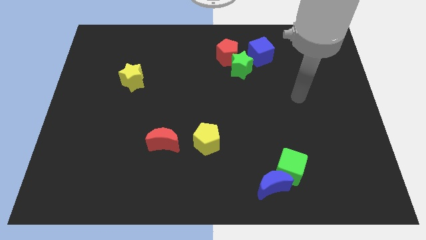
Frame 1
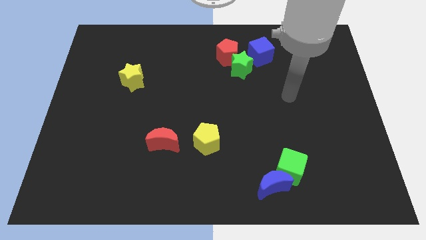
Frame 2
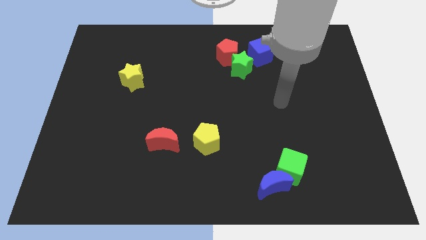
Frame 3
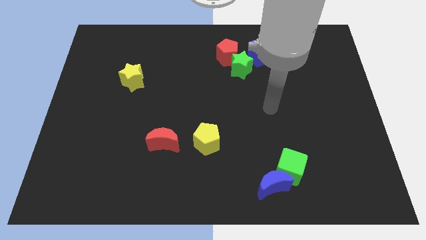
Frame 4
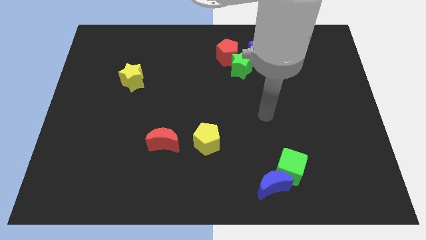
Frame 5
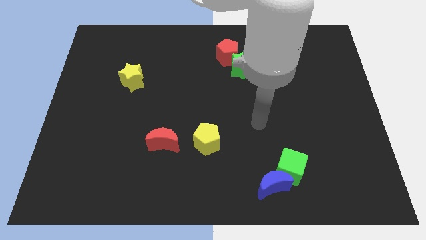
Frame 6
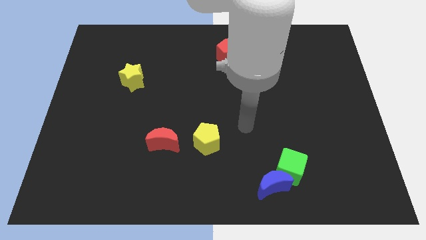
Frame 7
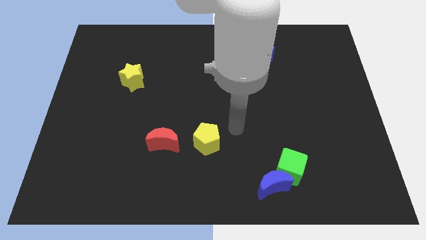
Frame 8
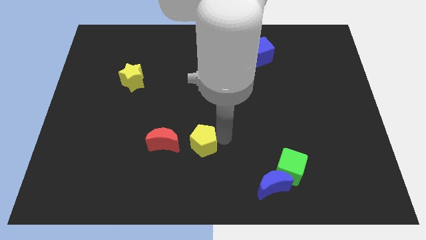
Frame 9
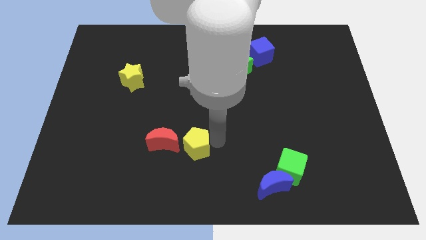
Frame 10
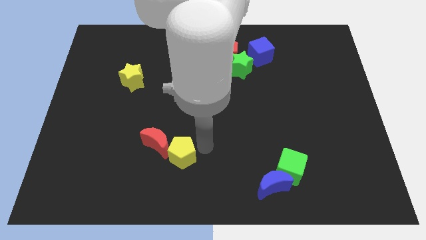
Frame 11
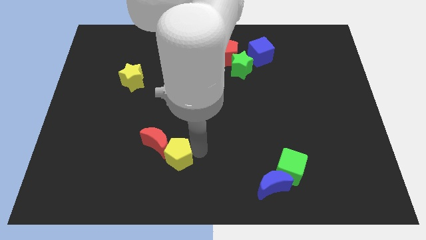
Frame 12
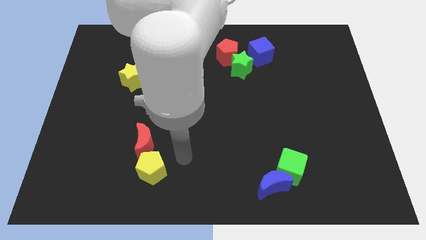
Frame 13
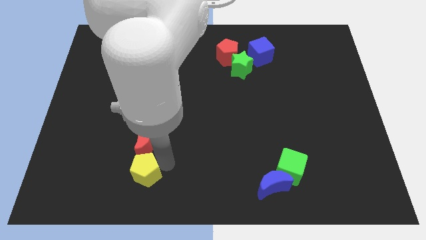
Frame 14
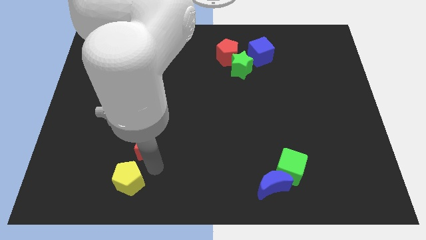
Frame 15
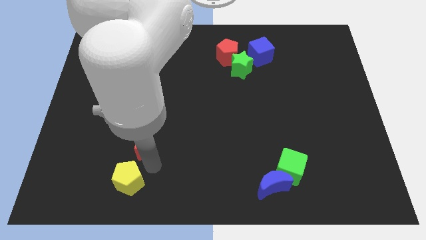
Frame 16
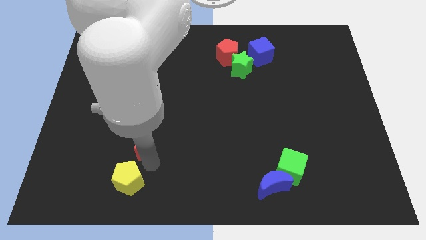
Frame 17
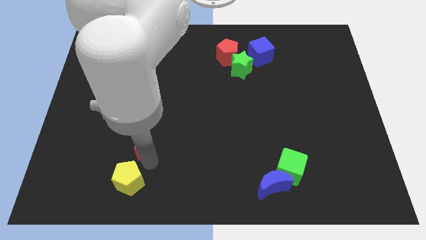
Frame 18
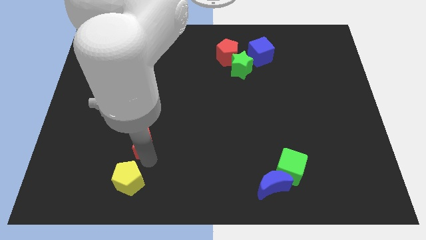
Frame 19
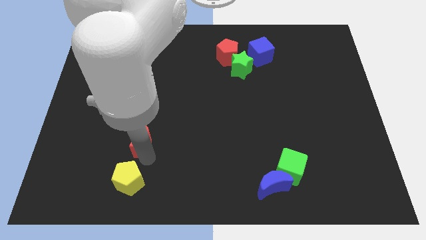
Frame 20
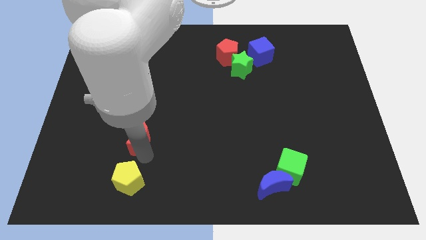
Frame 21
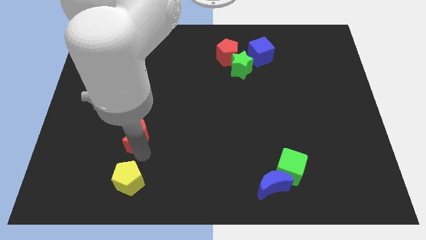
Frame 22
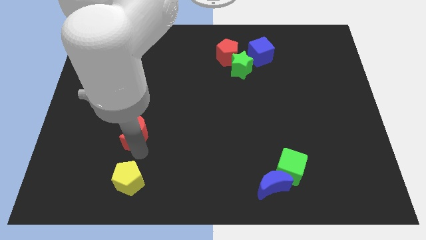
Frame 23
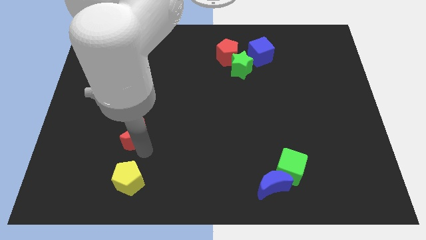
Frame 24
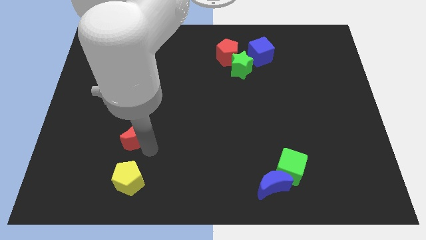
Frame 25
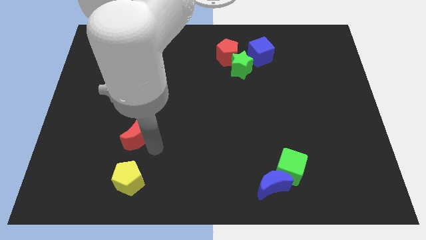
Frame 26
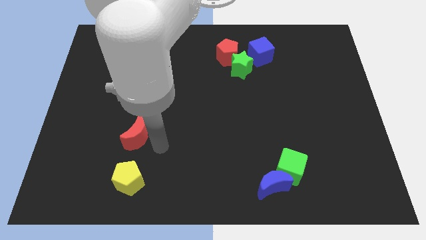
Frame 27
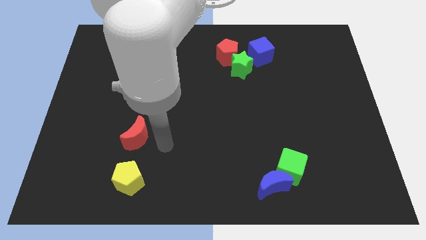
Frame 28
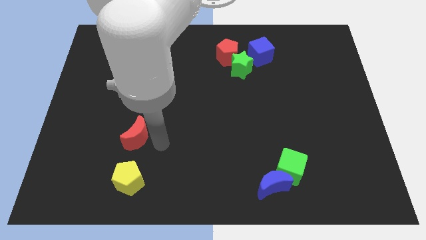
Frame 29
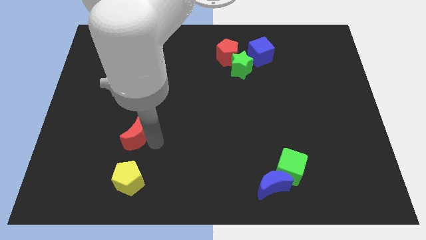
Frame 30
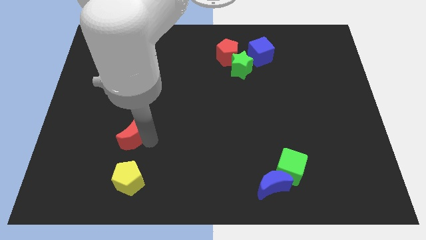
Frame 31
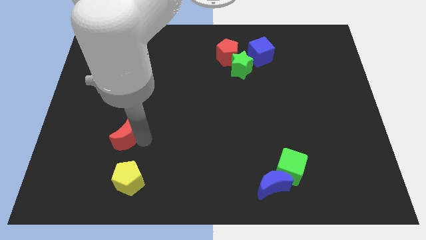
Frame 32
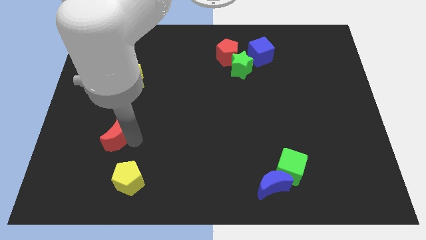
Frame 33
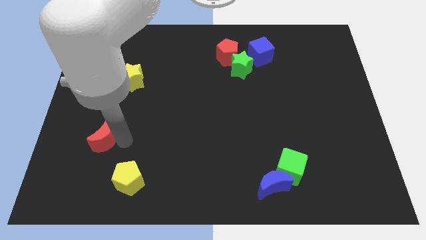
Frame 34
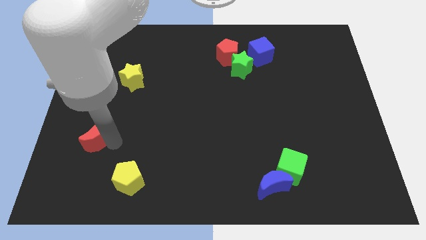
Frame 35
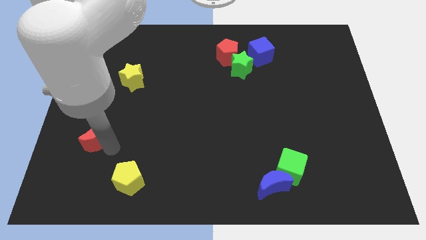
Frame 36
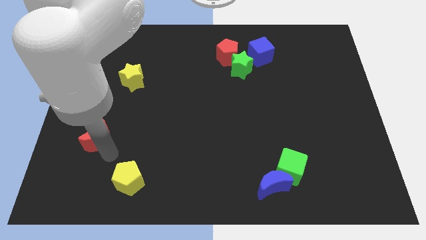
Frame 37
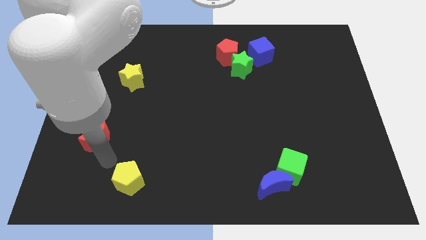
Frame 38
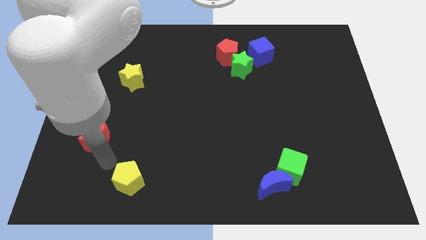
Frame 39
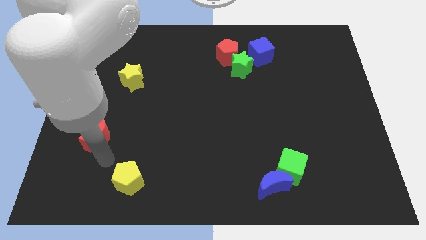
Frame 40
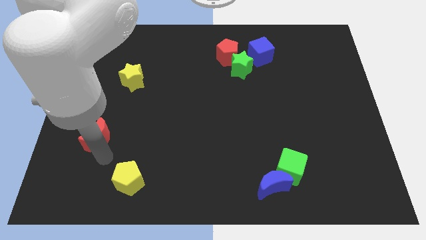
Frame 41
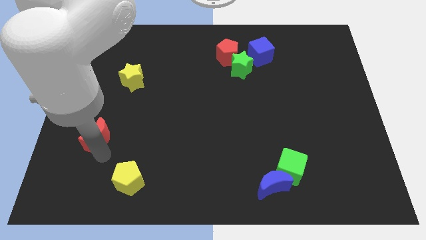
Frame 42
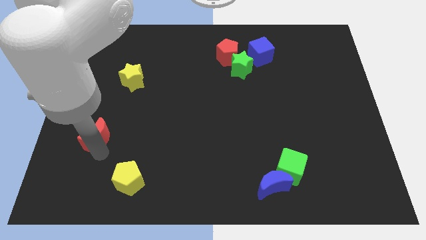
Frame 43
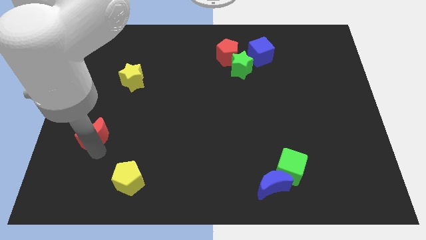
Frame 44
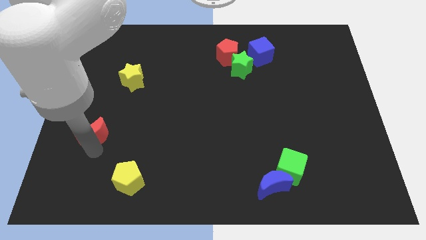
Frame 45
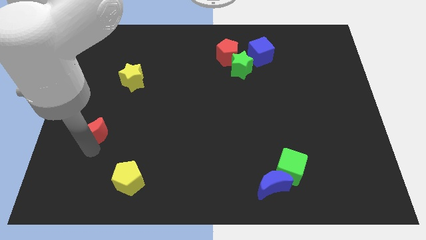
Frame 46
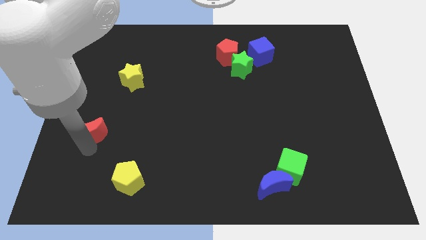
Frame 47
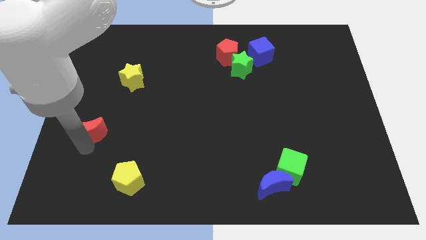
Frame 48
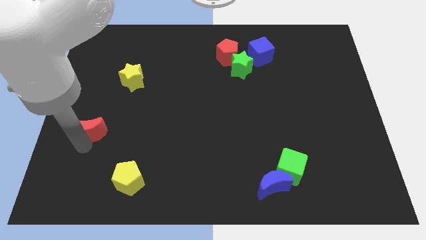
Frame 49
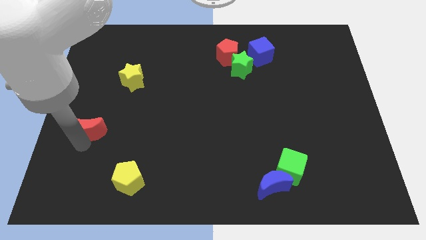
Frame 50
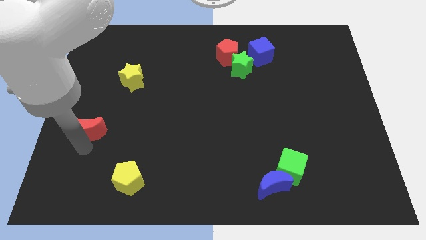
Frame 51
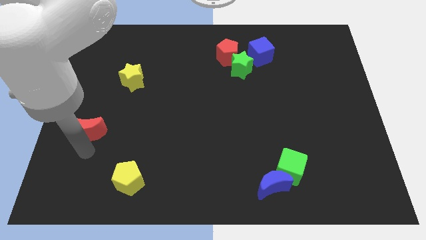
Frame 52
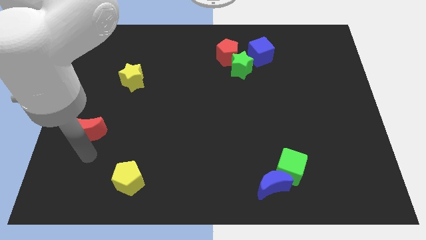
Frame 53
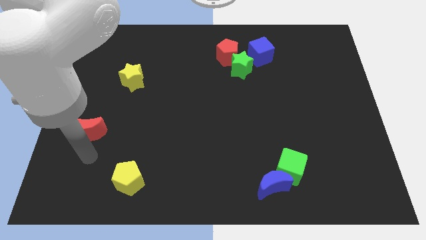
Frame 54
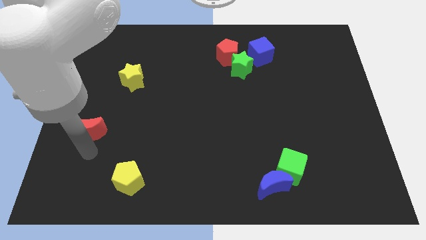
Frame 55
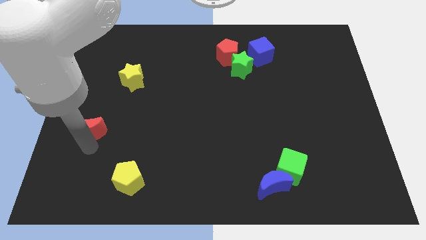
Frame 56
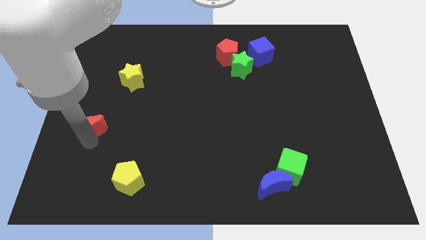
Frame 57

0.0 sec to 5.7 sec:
push the red moon to the left side of the board
